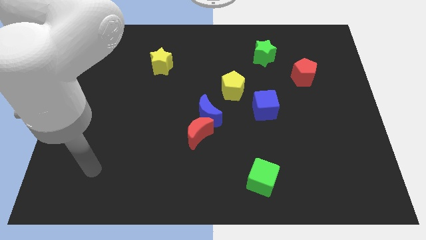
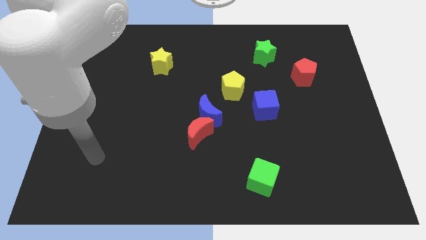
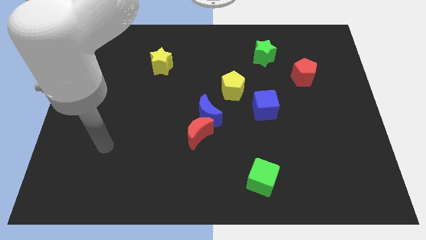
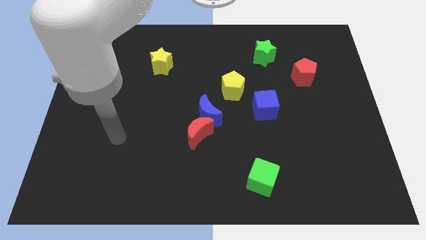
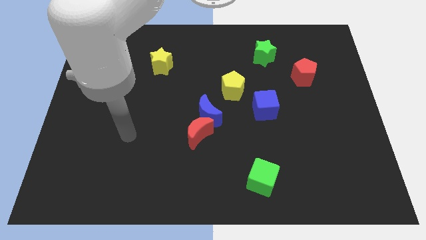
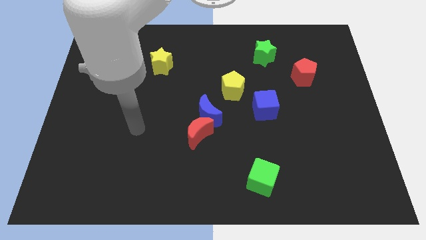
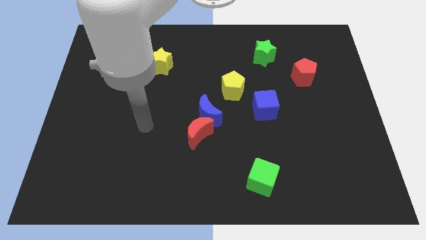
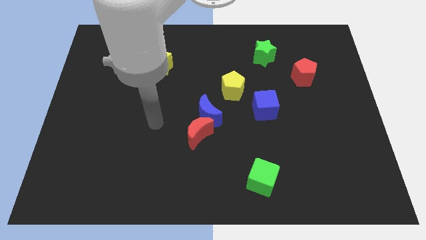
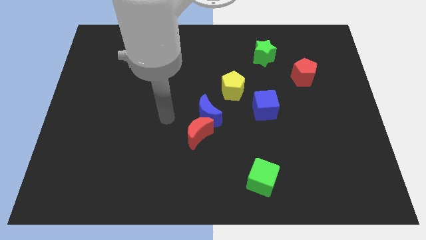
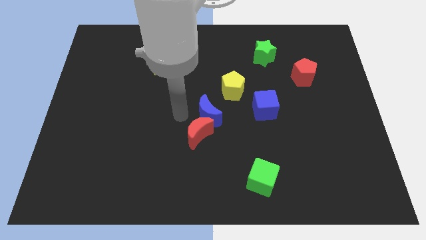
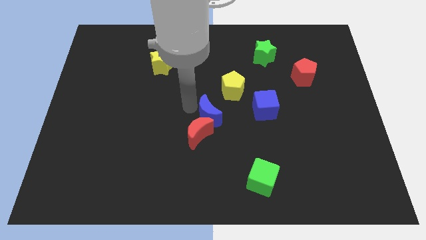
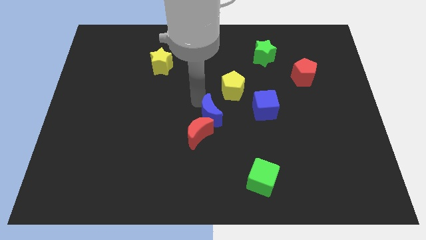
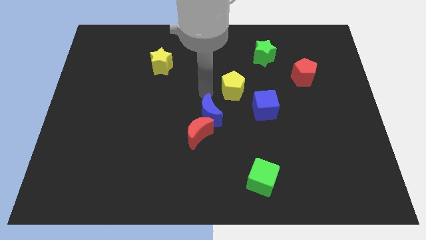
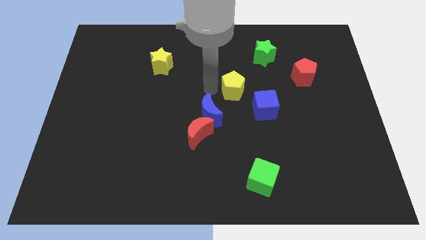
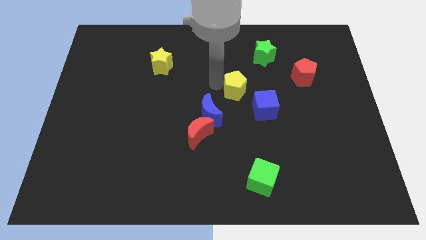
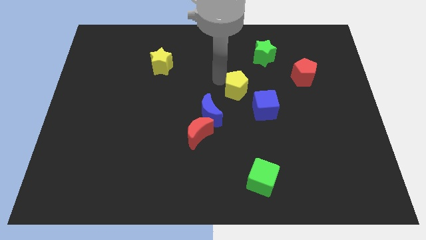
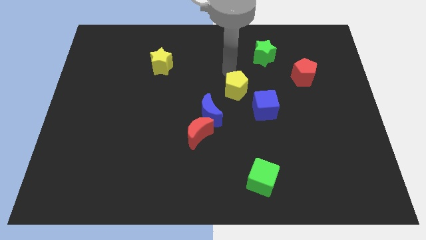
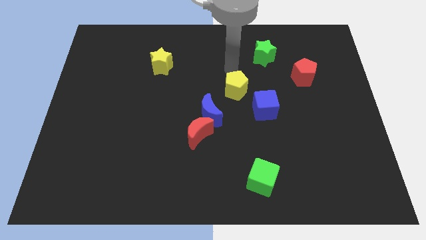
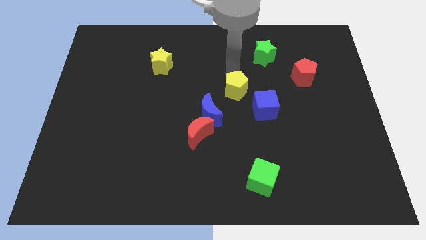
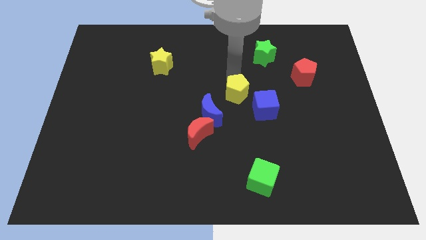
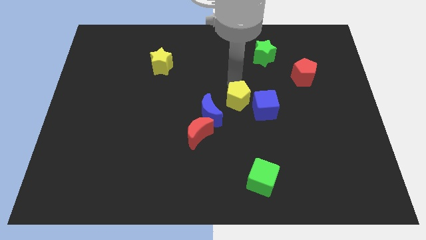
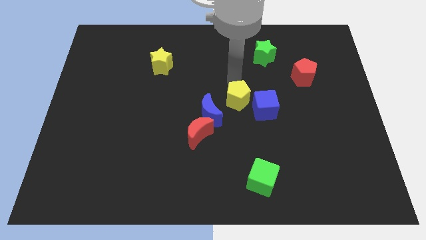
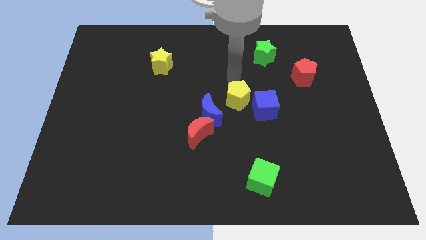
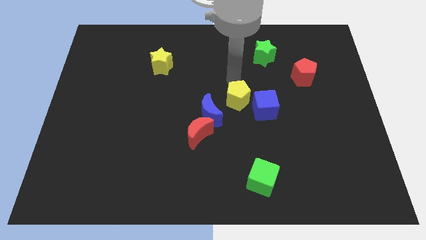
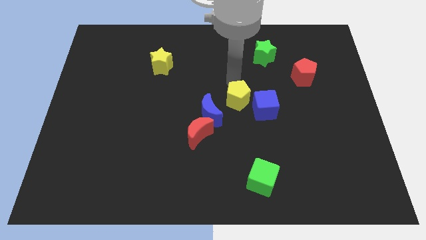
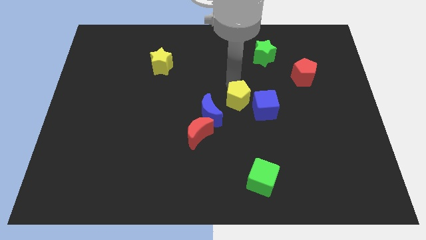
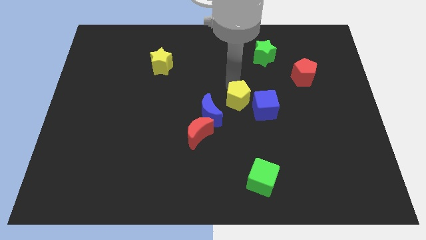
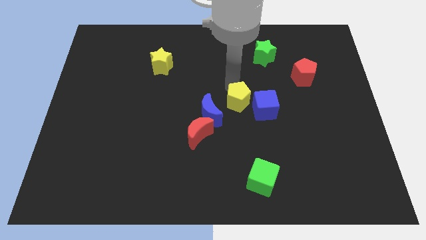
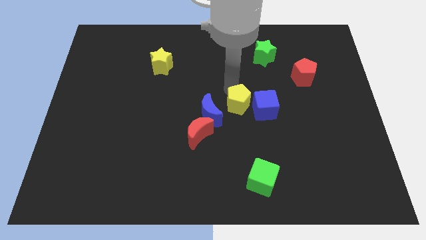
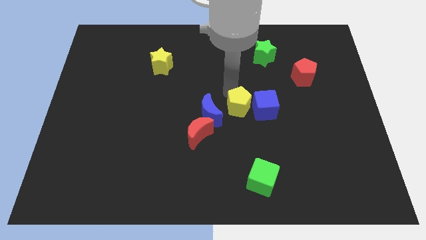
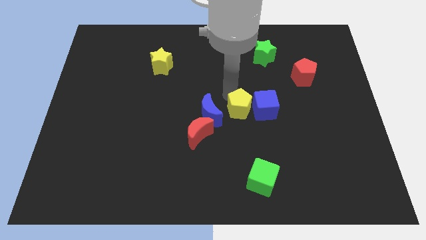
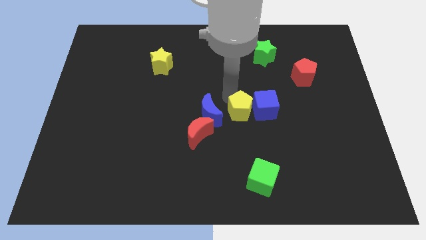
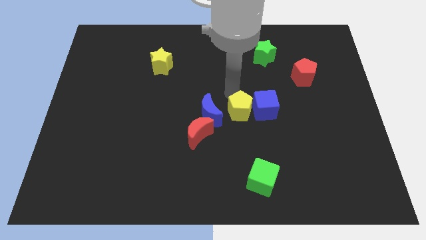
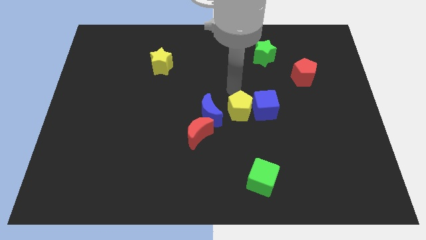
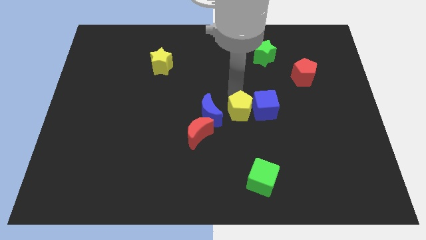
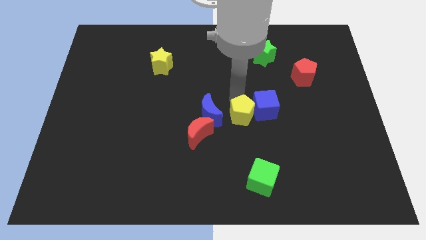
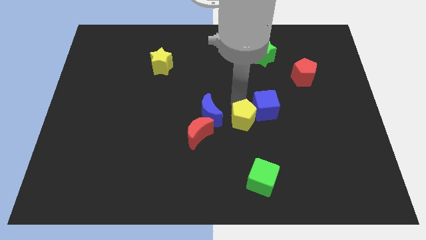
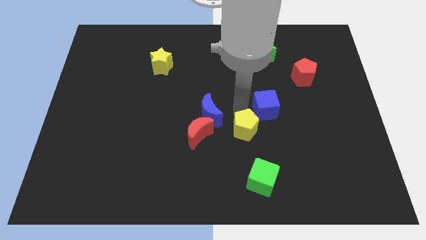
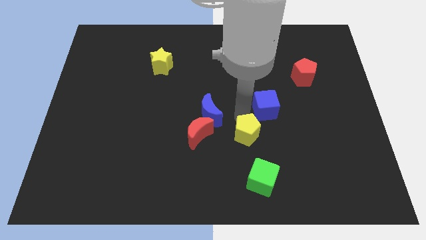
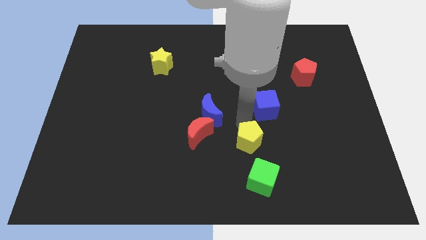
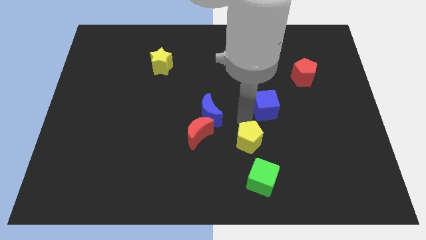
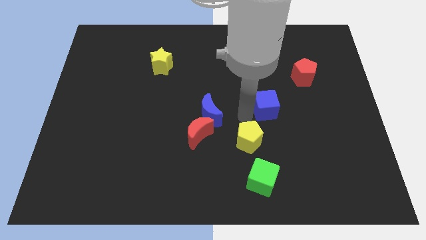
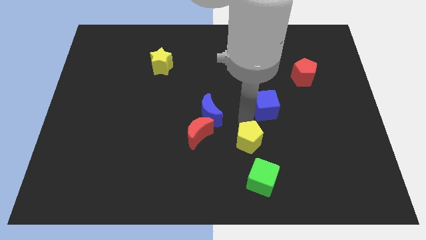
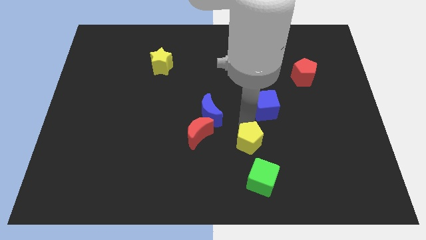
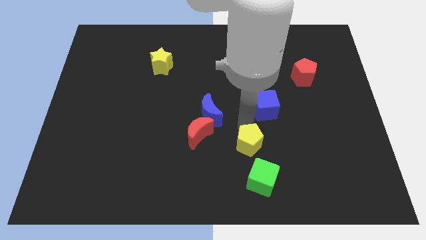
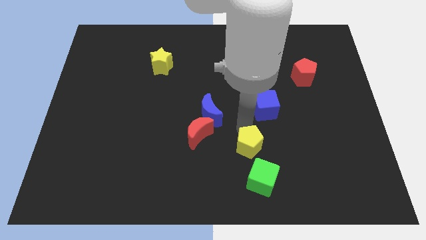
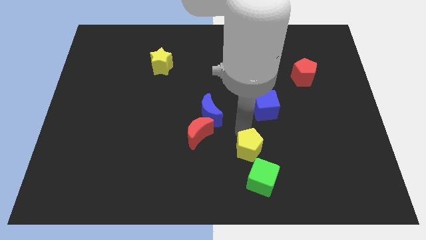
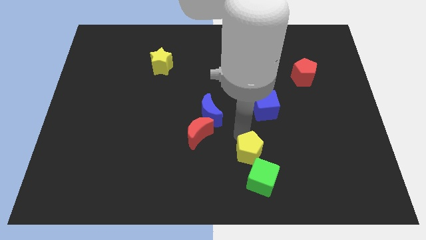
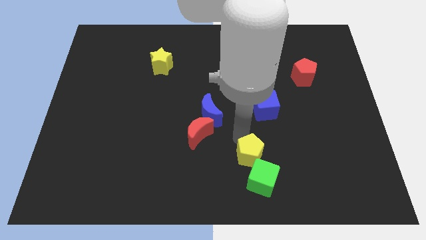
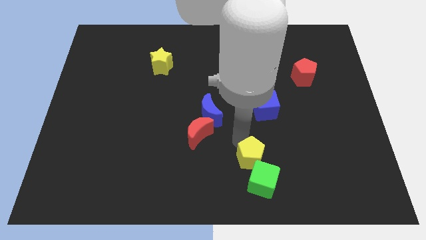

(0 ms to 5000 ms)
push the yellow pentagon towards the green cube

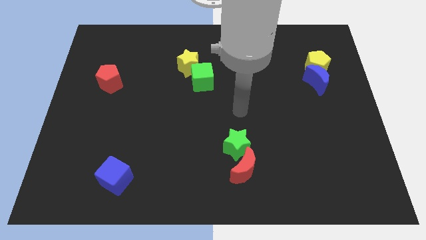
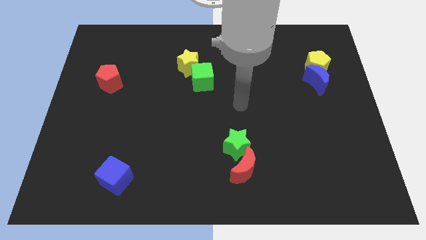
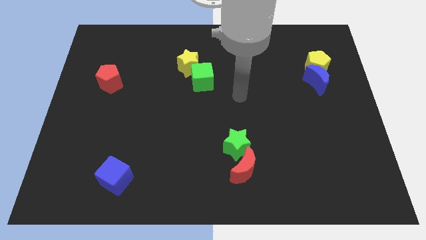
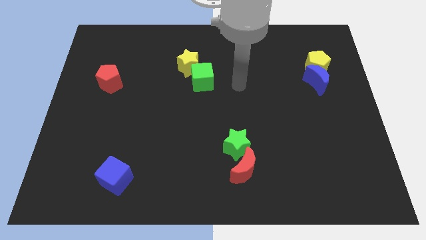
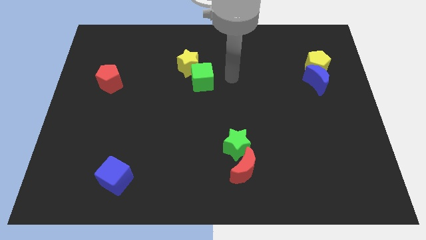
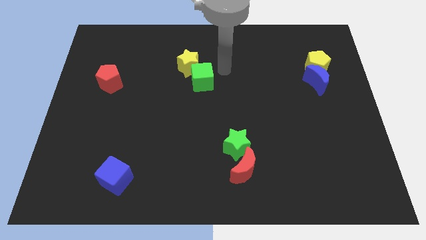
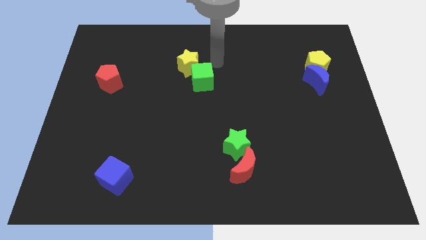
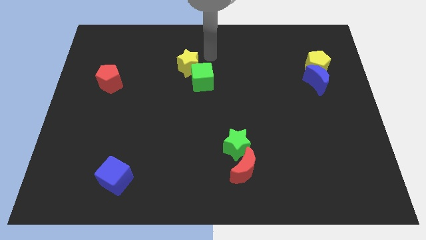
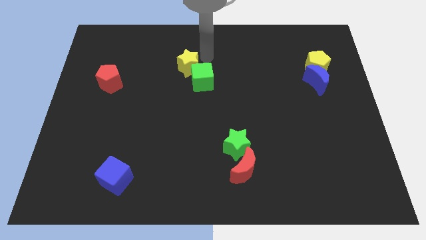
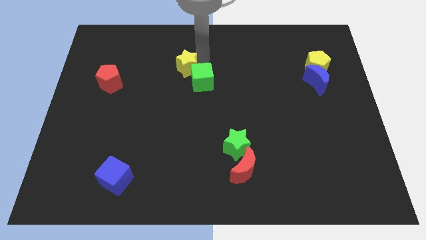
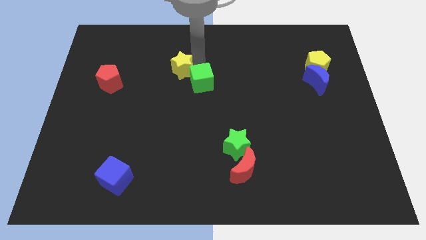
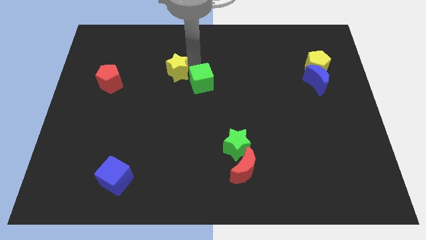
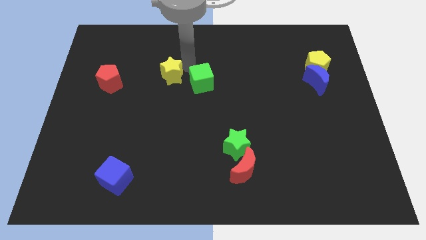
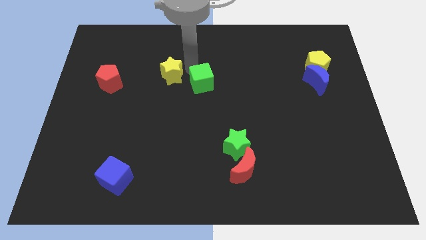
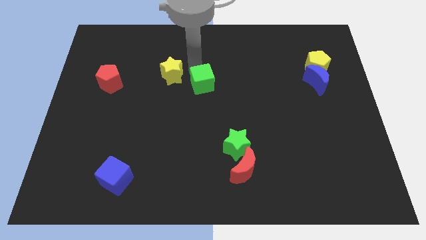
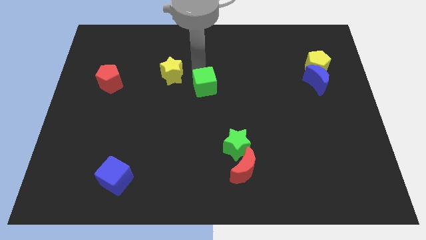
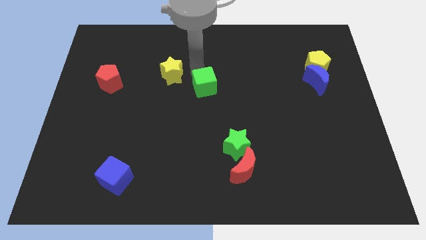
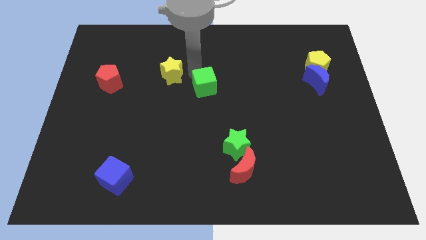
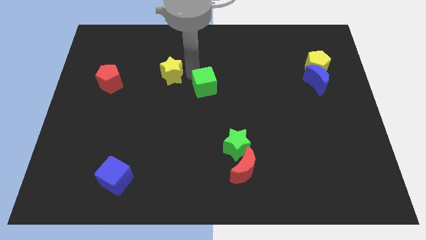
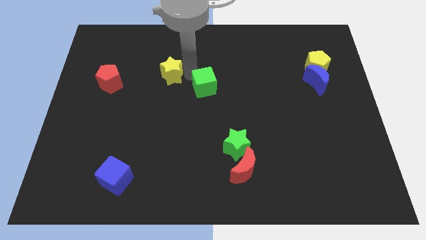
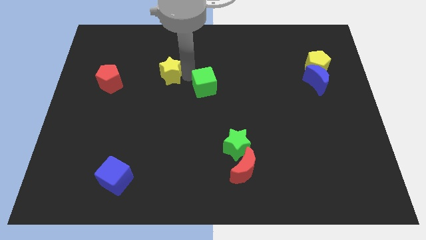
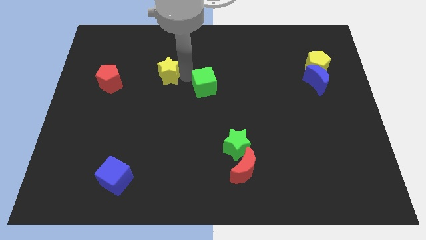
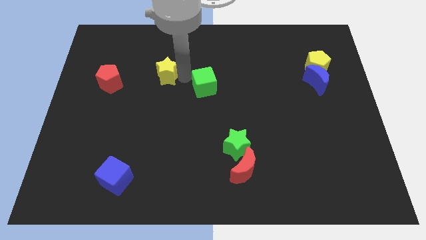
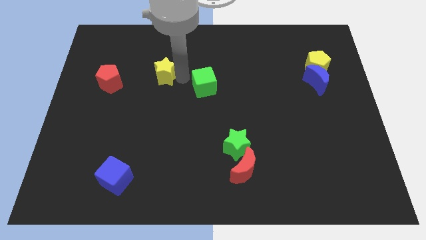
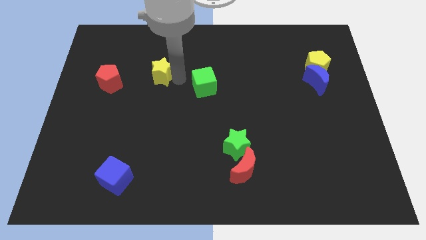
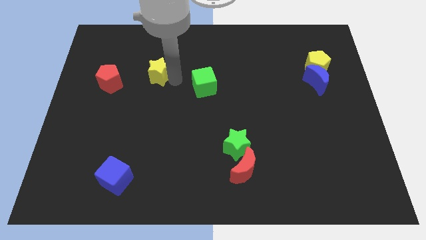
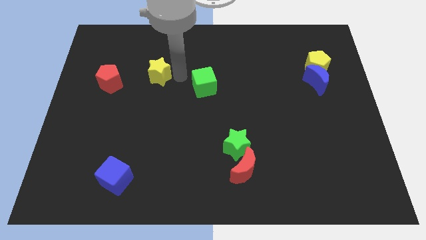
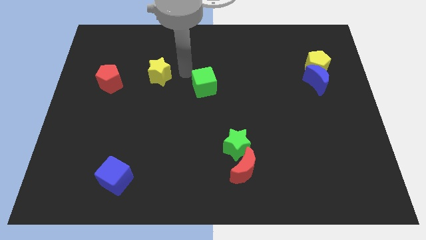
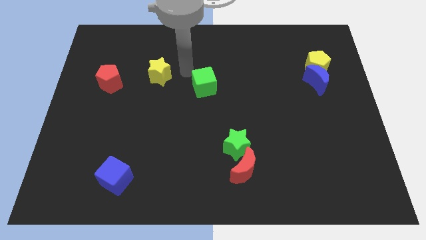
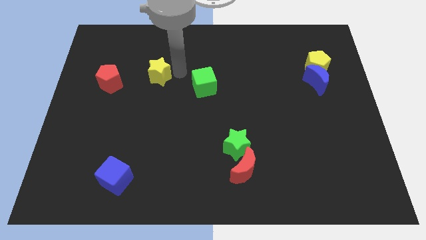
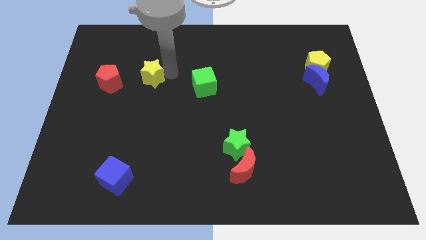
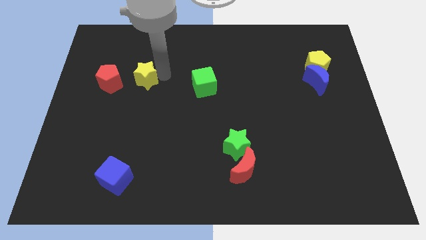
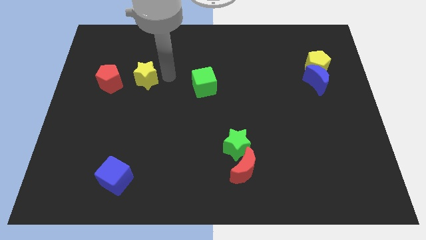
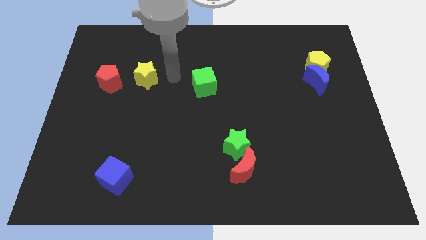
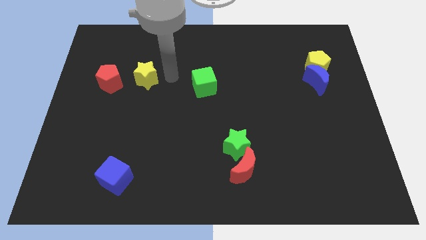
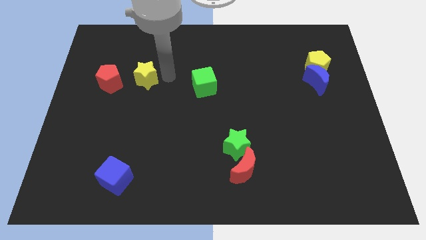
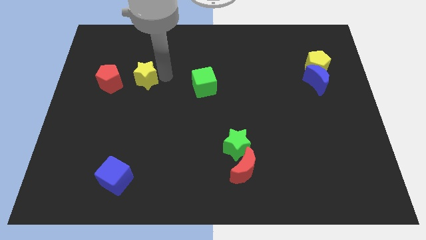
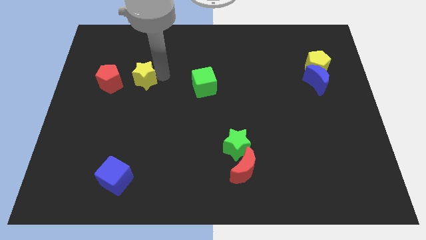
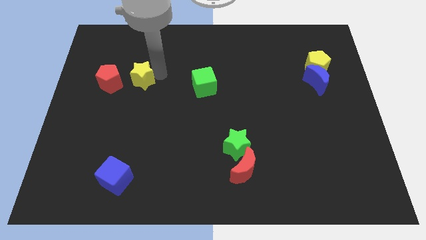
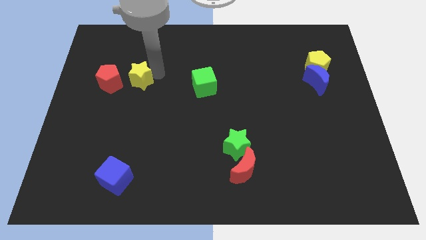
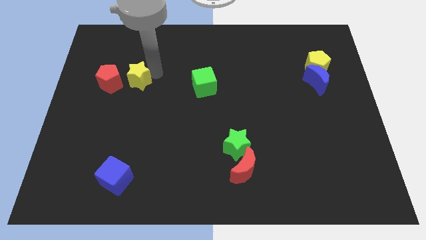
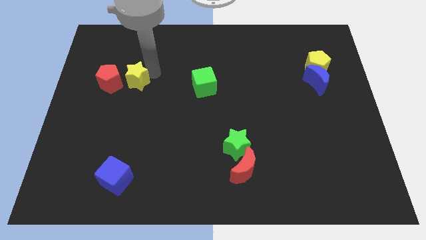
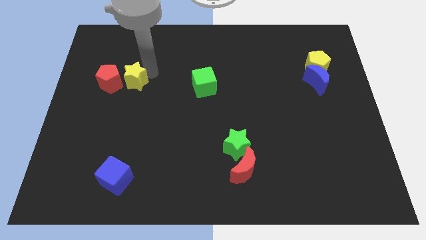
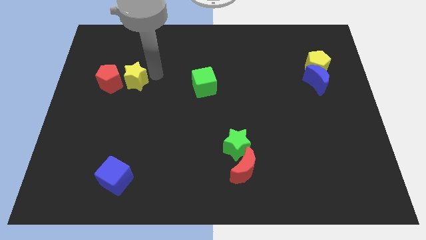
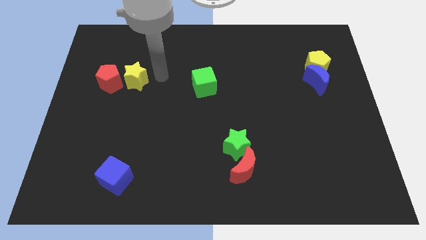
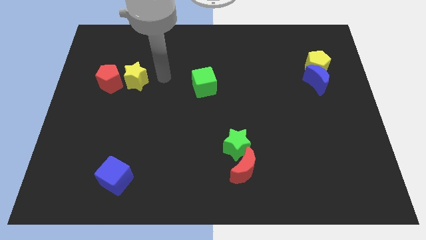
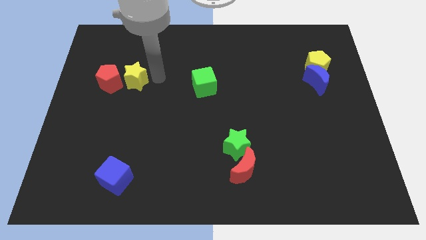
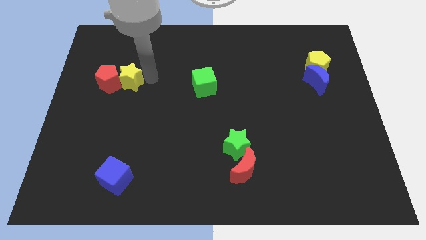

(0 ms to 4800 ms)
put the yellow star towards the red pentagon
